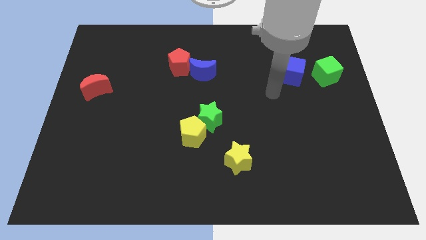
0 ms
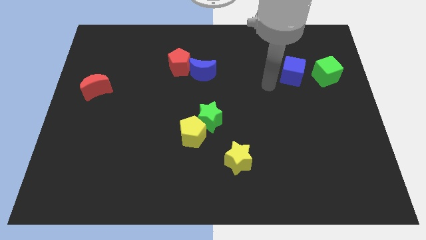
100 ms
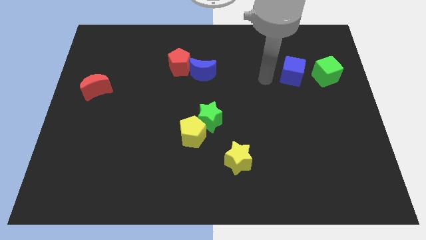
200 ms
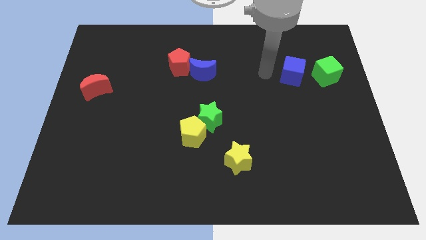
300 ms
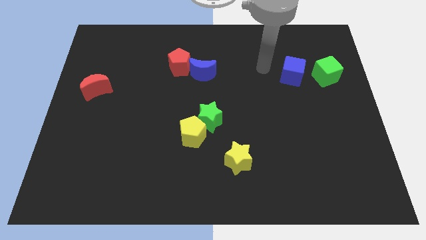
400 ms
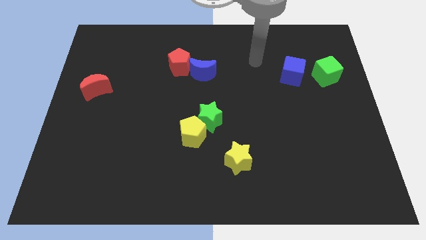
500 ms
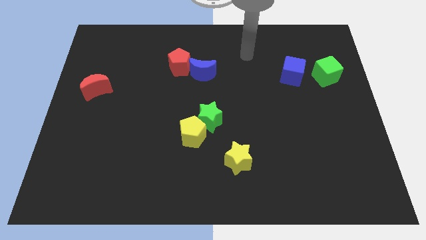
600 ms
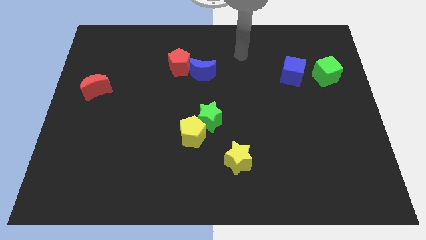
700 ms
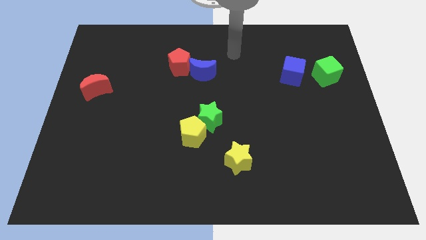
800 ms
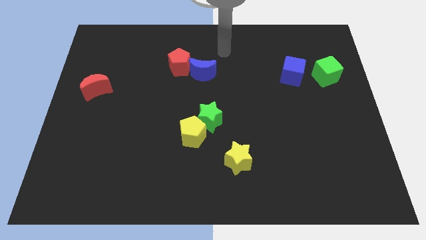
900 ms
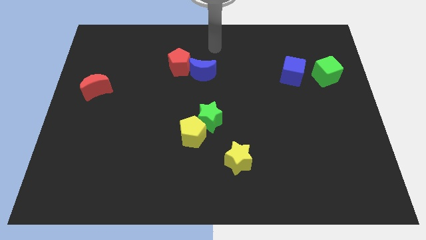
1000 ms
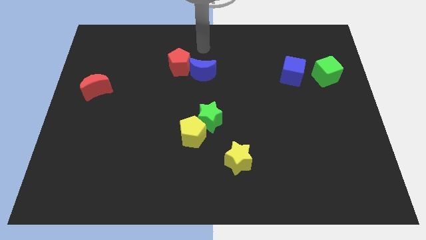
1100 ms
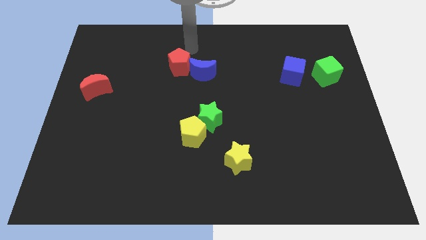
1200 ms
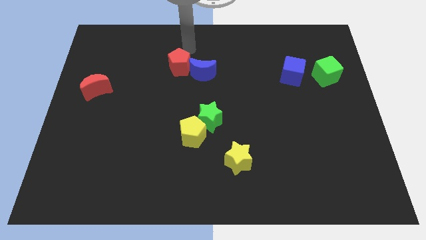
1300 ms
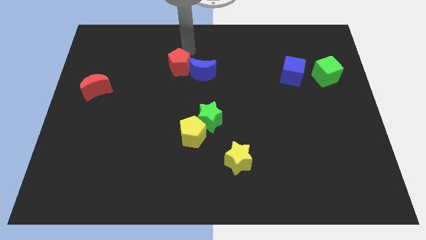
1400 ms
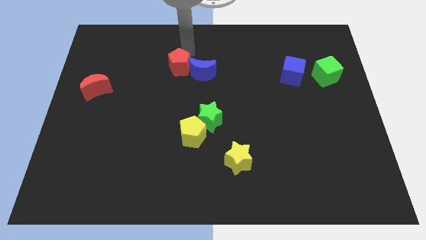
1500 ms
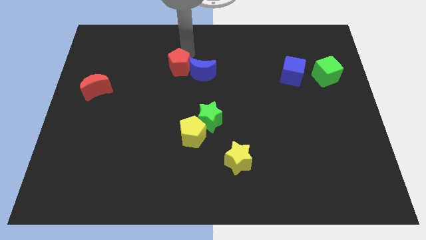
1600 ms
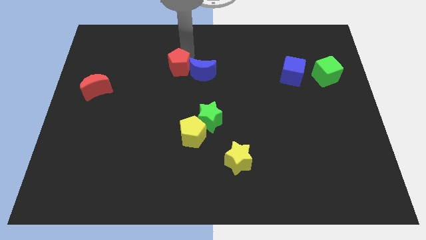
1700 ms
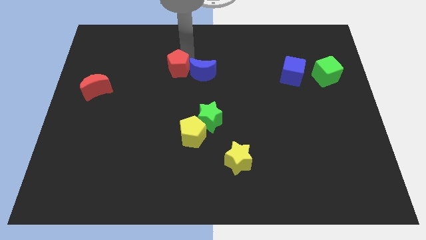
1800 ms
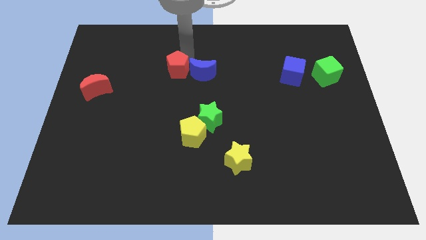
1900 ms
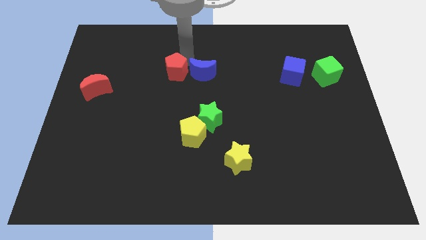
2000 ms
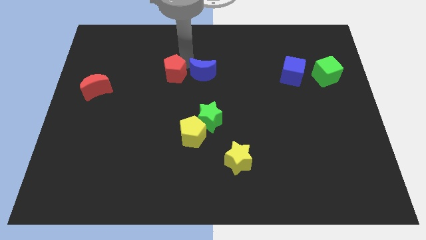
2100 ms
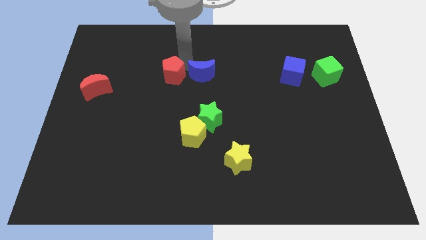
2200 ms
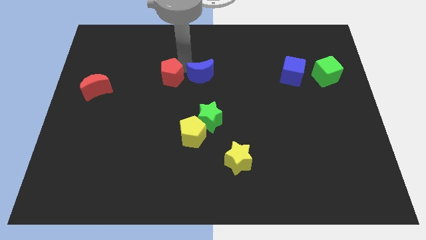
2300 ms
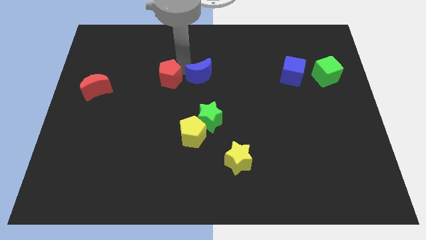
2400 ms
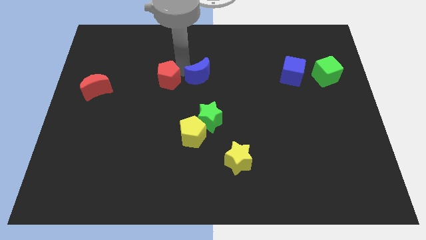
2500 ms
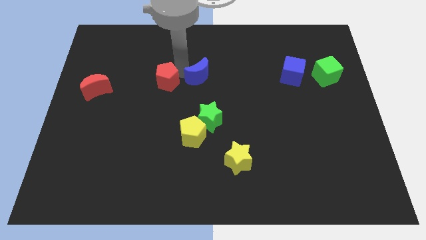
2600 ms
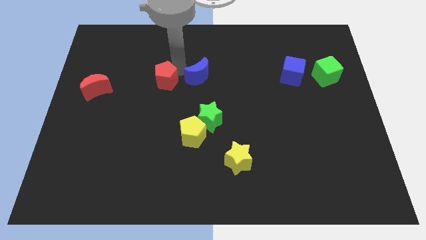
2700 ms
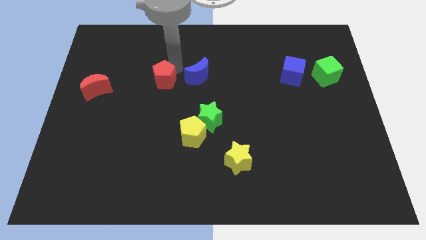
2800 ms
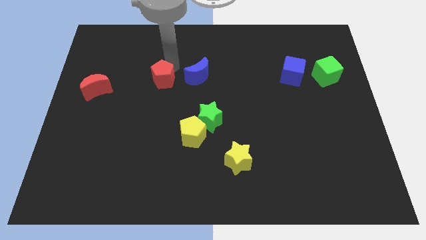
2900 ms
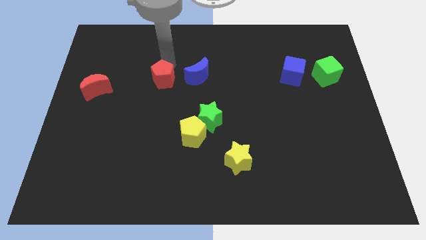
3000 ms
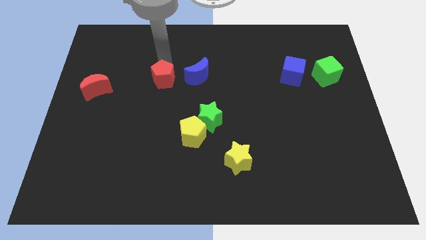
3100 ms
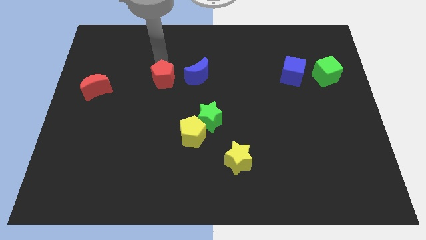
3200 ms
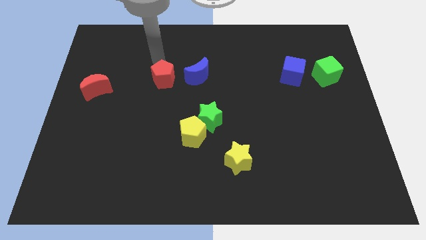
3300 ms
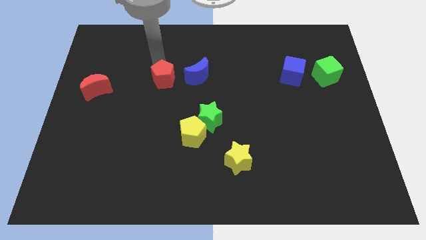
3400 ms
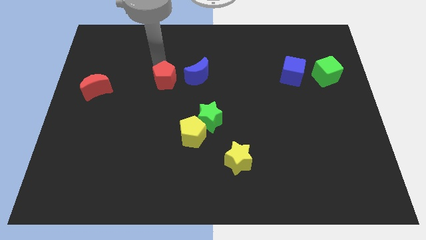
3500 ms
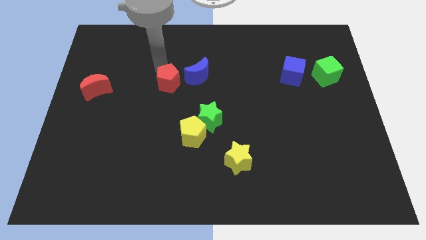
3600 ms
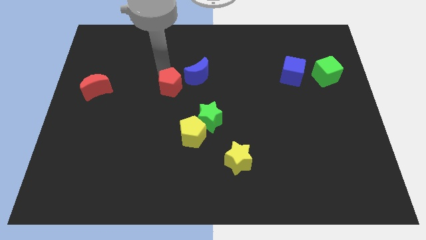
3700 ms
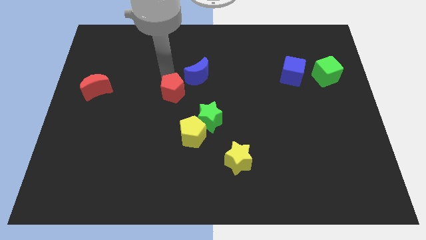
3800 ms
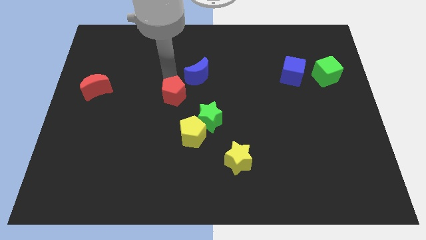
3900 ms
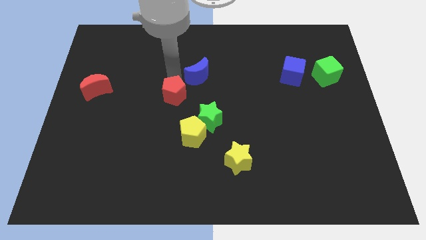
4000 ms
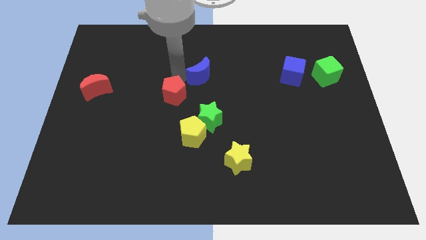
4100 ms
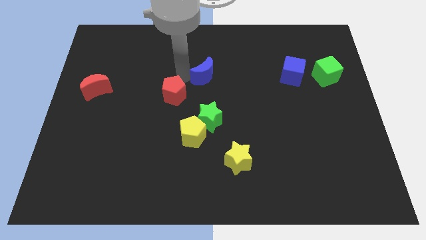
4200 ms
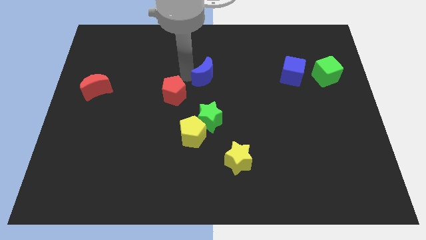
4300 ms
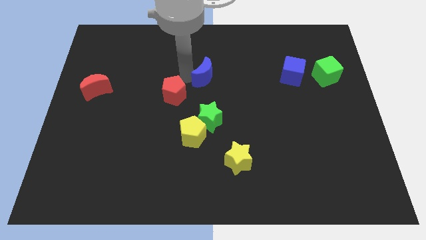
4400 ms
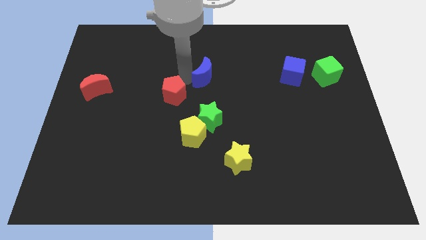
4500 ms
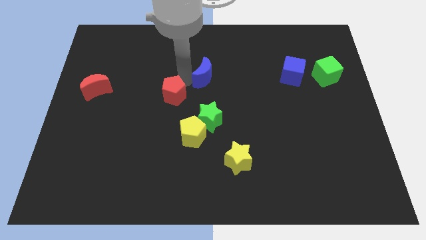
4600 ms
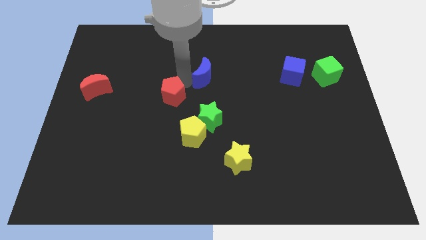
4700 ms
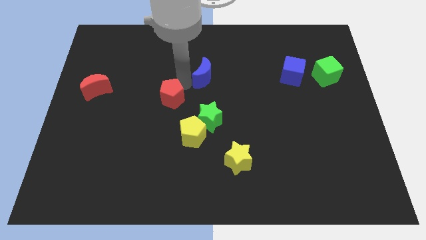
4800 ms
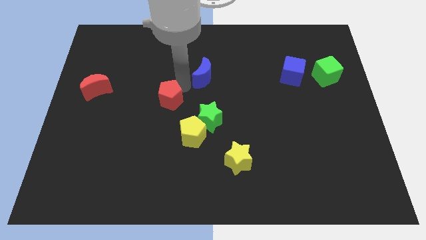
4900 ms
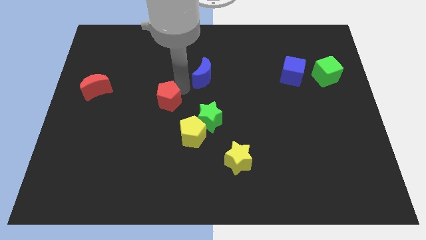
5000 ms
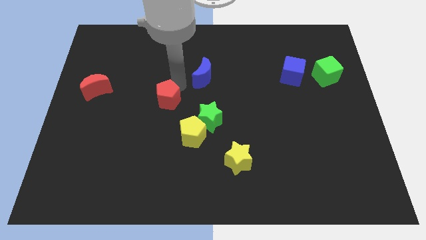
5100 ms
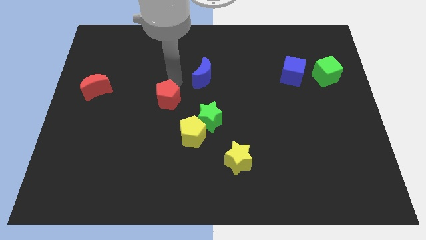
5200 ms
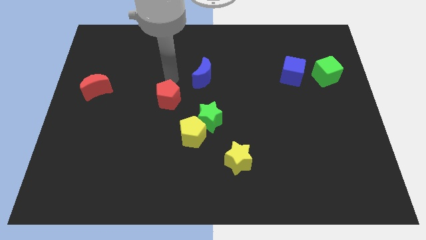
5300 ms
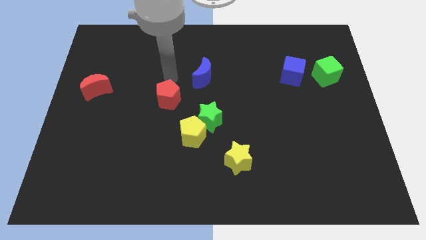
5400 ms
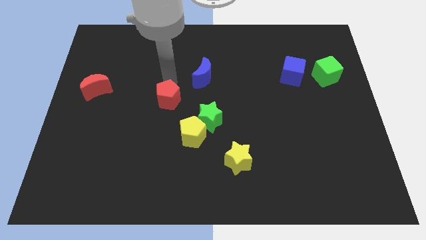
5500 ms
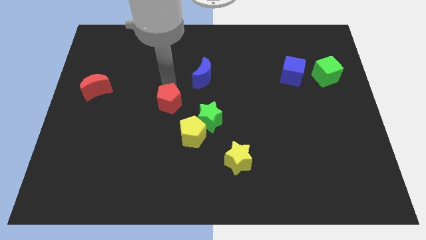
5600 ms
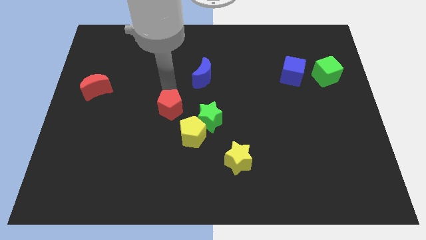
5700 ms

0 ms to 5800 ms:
move the red pentagon left of the green star

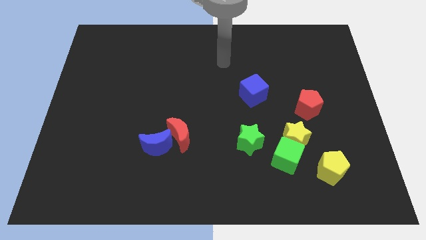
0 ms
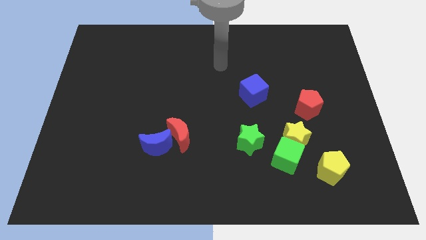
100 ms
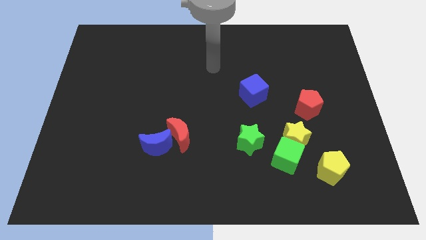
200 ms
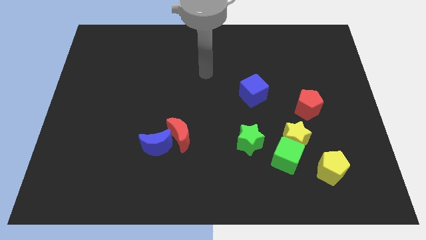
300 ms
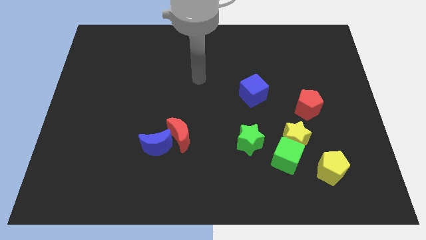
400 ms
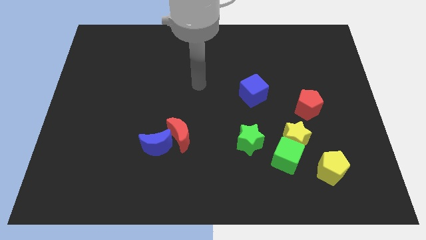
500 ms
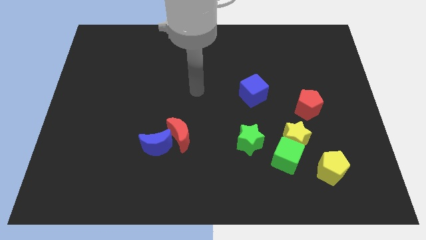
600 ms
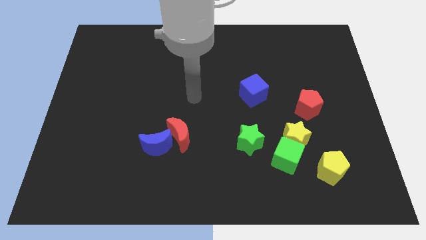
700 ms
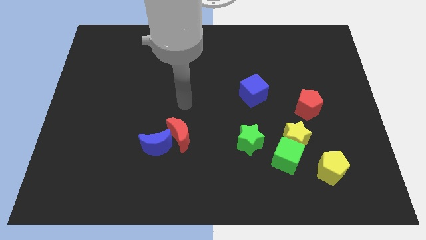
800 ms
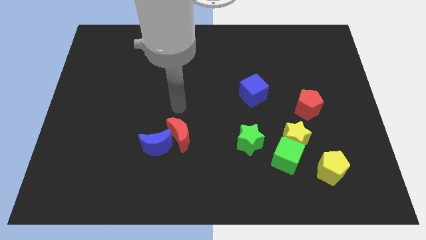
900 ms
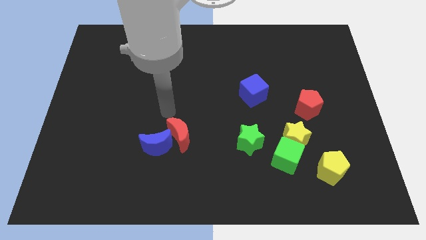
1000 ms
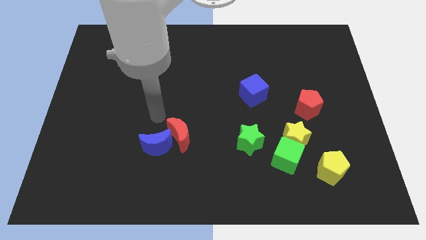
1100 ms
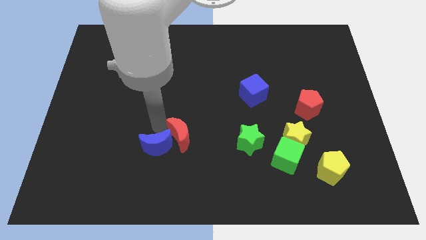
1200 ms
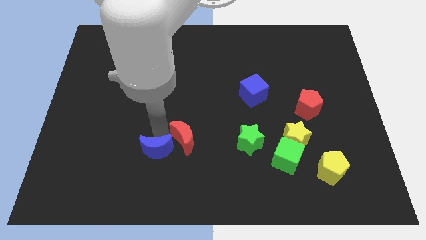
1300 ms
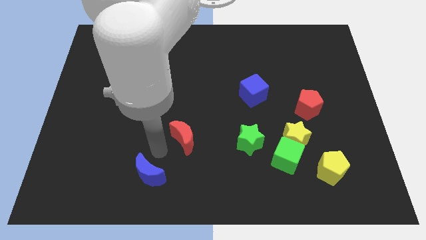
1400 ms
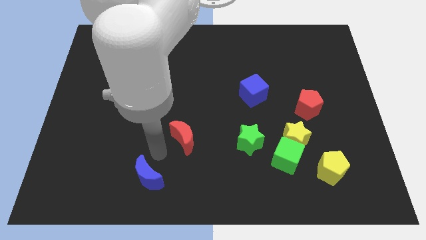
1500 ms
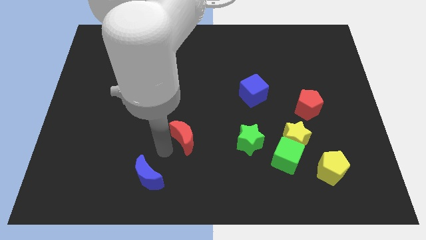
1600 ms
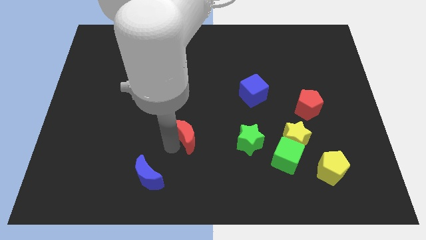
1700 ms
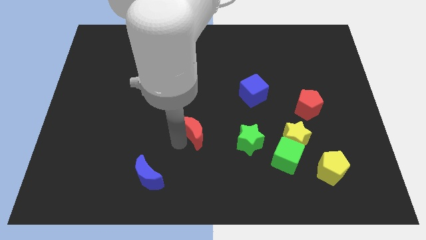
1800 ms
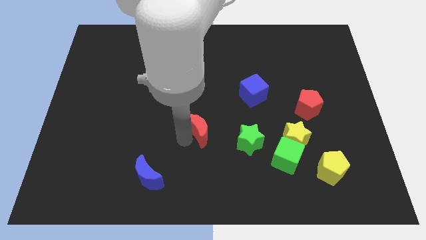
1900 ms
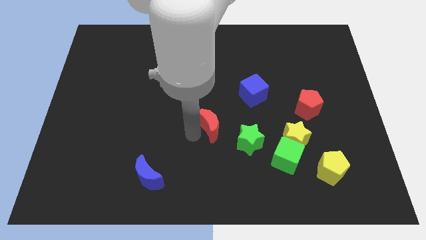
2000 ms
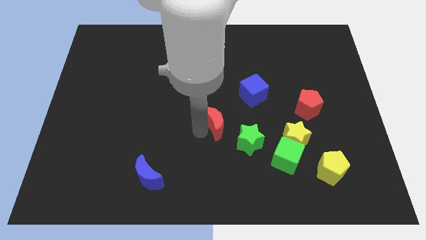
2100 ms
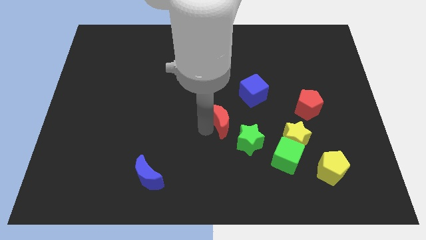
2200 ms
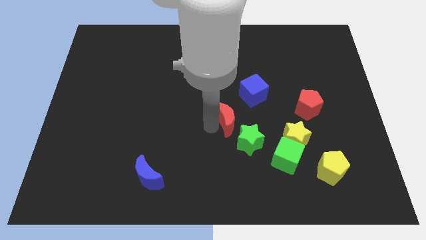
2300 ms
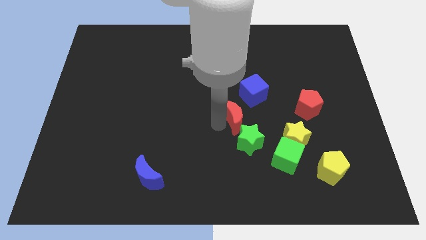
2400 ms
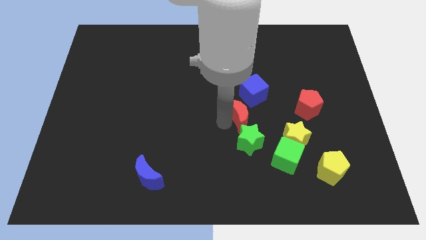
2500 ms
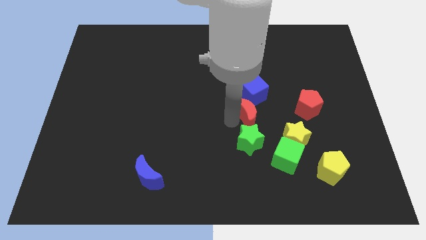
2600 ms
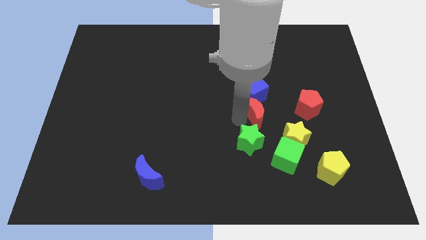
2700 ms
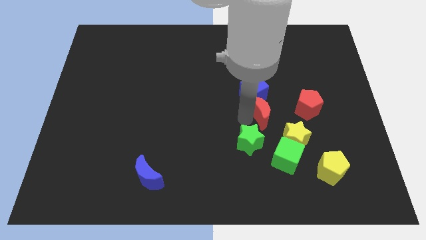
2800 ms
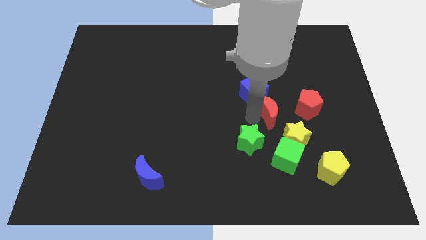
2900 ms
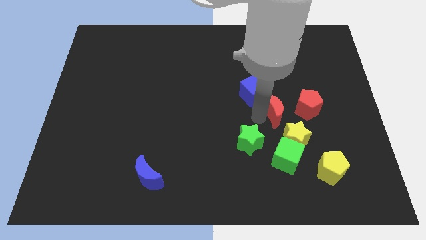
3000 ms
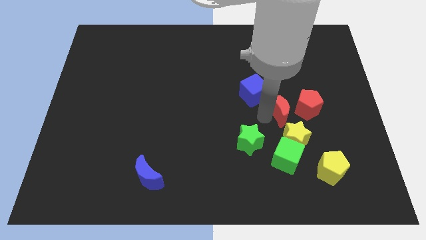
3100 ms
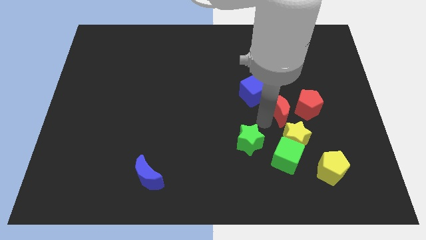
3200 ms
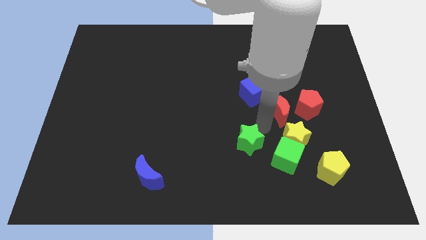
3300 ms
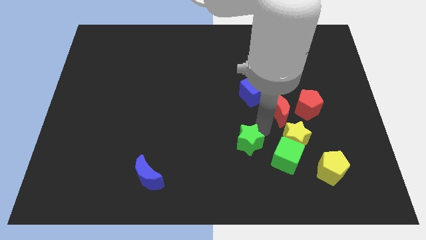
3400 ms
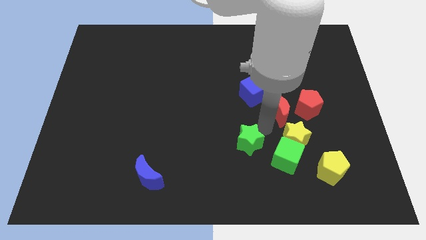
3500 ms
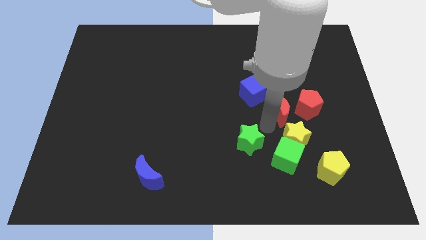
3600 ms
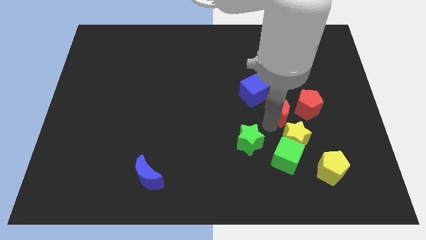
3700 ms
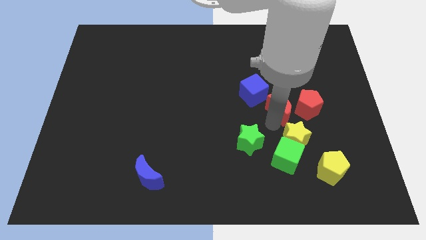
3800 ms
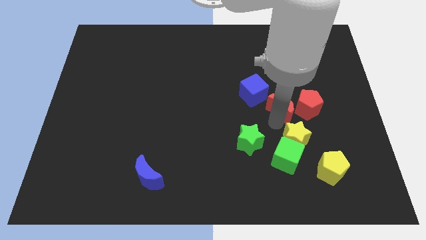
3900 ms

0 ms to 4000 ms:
push the red moon to the right side of the blue cube
